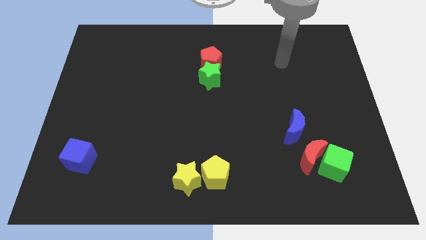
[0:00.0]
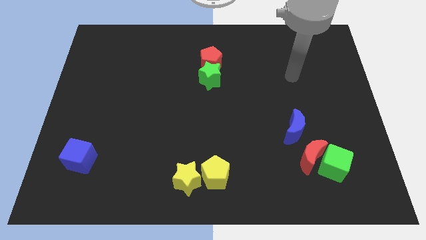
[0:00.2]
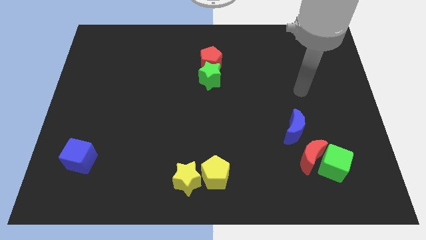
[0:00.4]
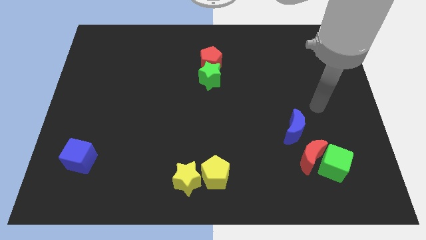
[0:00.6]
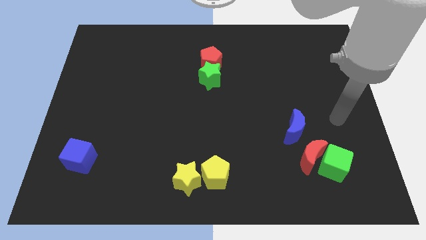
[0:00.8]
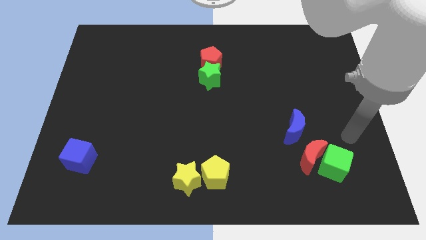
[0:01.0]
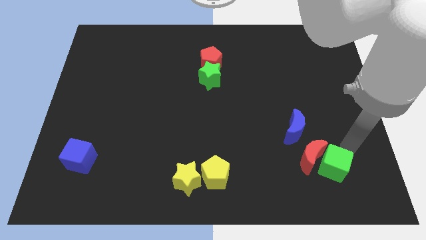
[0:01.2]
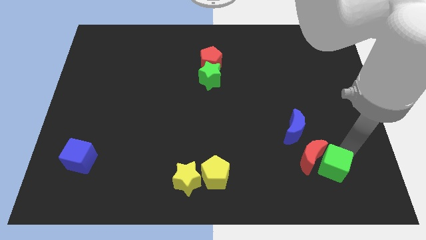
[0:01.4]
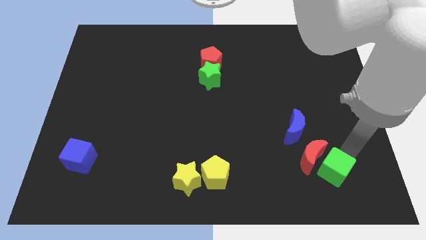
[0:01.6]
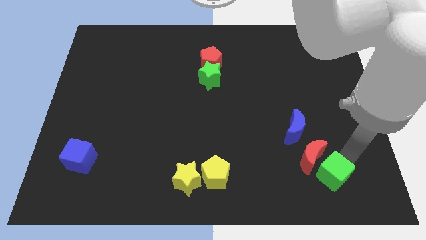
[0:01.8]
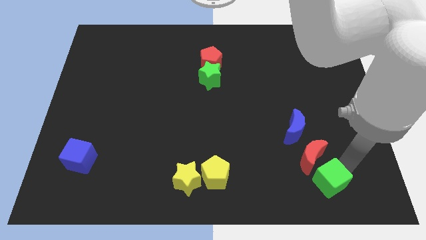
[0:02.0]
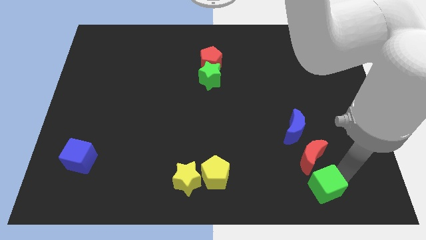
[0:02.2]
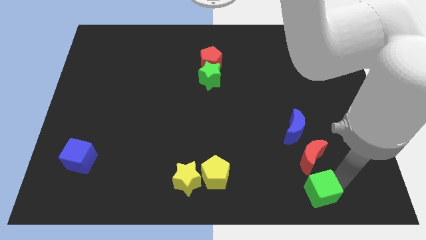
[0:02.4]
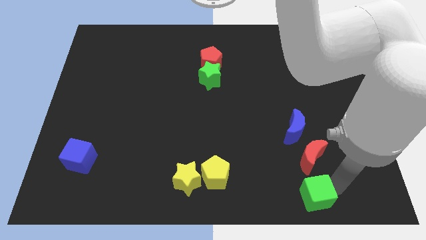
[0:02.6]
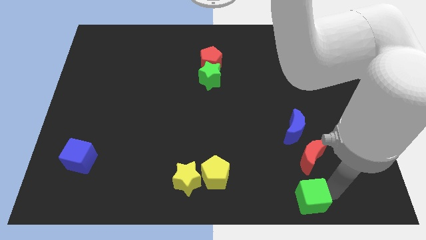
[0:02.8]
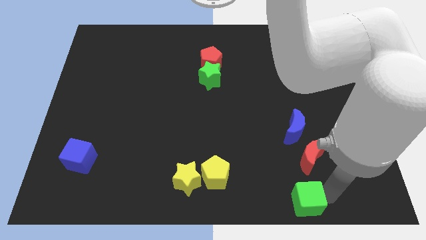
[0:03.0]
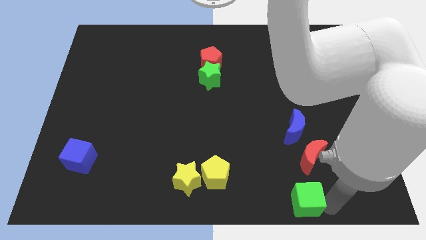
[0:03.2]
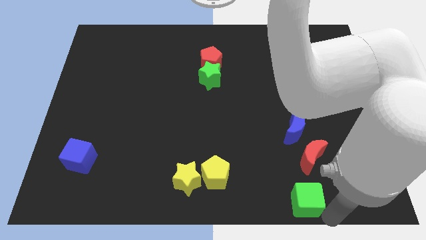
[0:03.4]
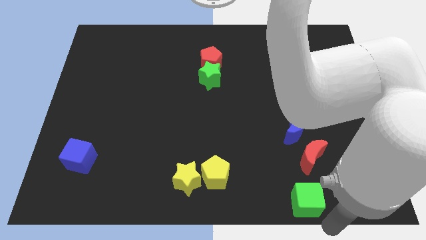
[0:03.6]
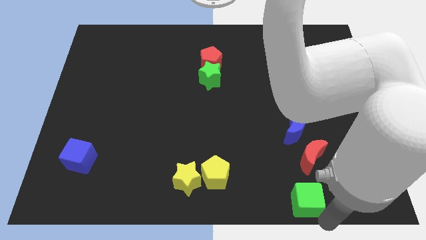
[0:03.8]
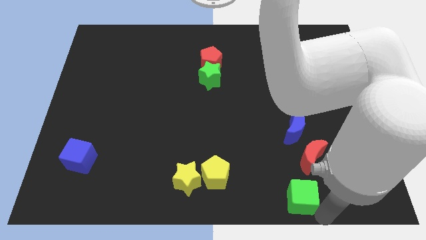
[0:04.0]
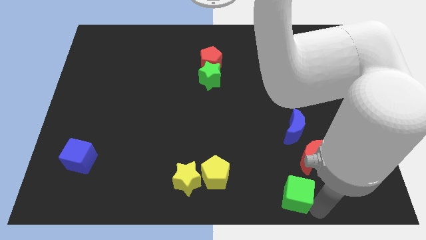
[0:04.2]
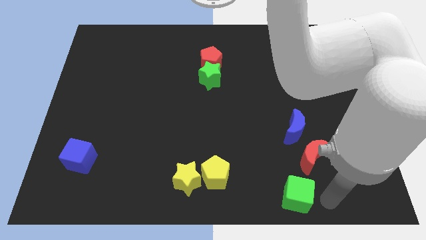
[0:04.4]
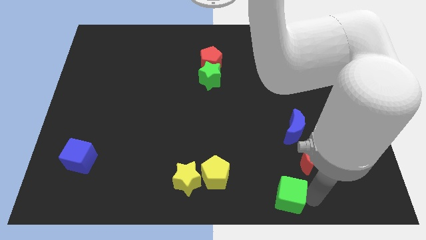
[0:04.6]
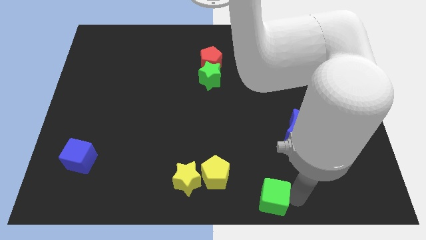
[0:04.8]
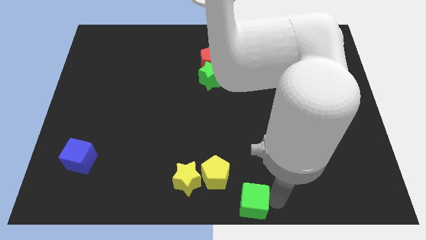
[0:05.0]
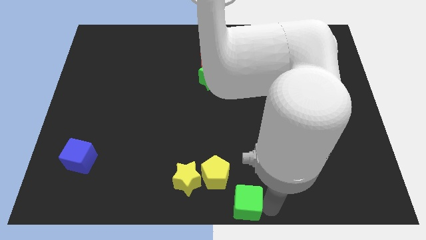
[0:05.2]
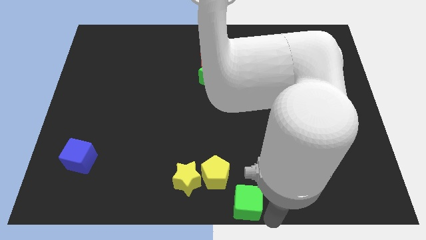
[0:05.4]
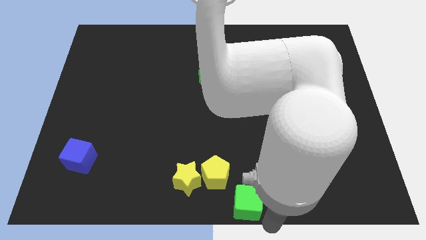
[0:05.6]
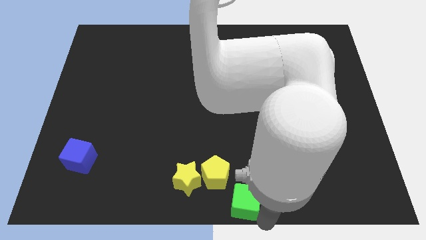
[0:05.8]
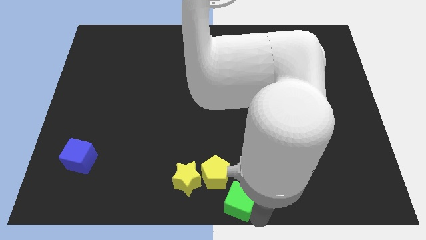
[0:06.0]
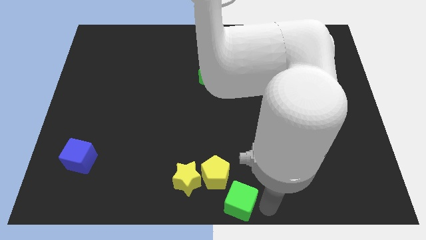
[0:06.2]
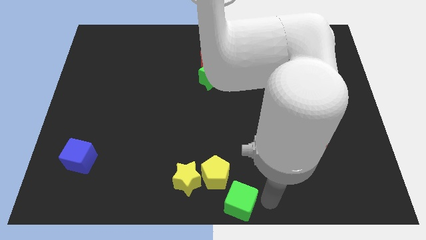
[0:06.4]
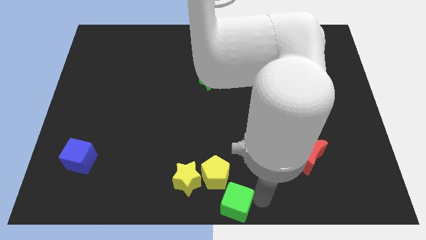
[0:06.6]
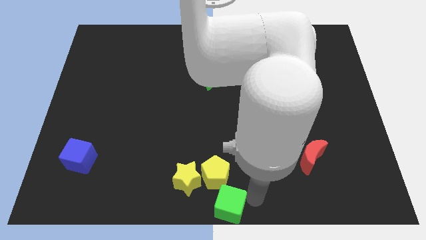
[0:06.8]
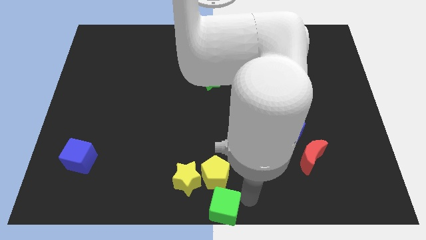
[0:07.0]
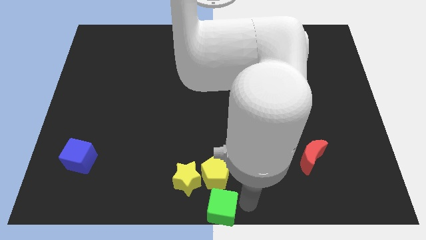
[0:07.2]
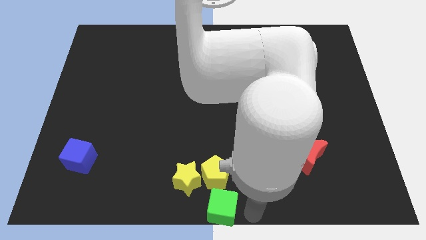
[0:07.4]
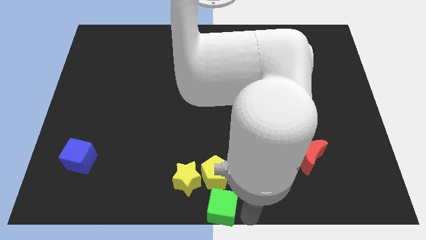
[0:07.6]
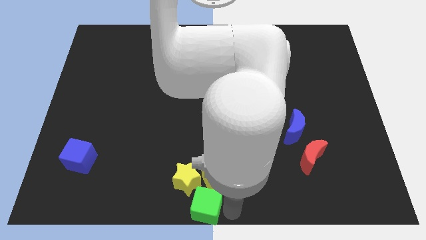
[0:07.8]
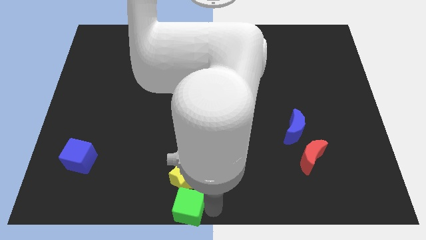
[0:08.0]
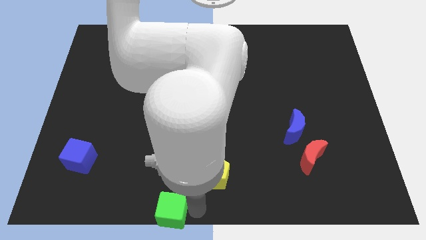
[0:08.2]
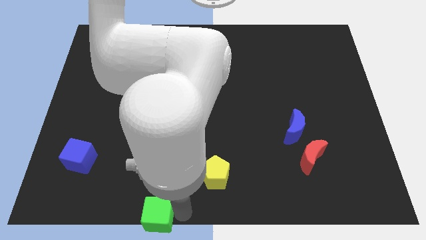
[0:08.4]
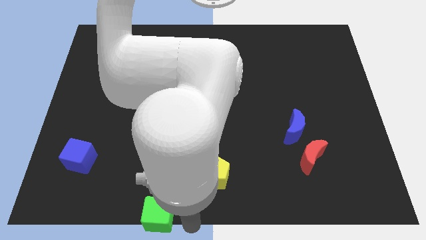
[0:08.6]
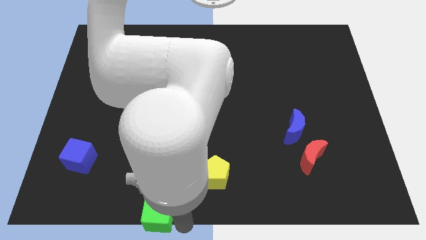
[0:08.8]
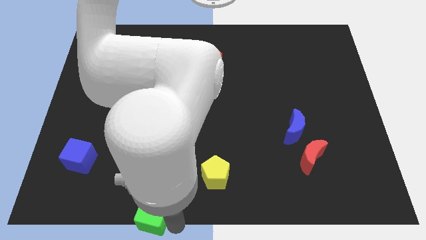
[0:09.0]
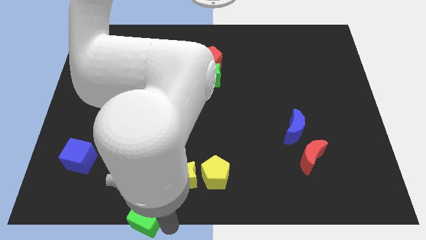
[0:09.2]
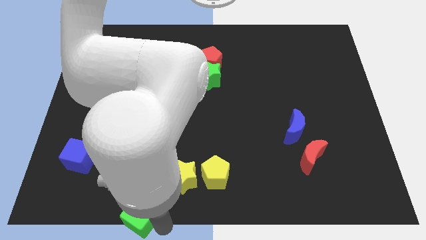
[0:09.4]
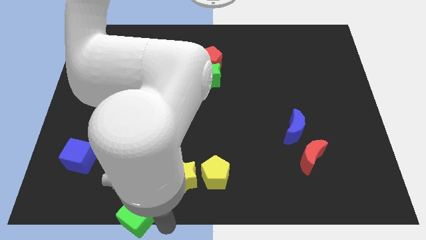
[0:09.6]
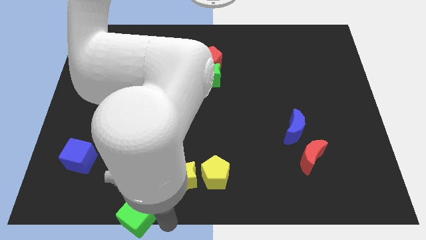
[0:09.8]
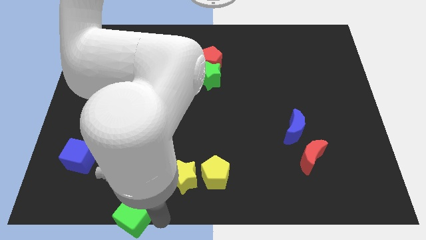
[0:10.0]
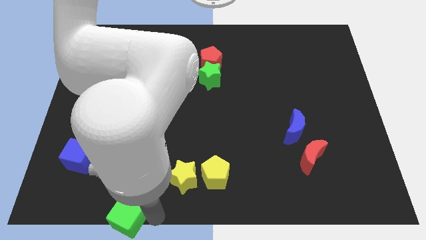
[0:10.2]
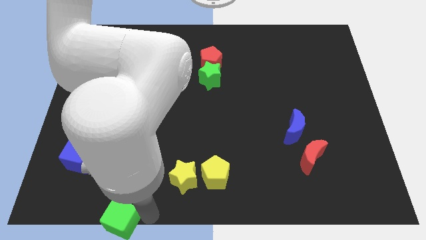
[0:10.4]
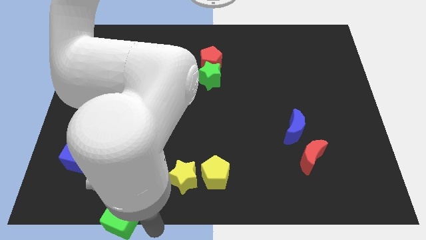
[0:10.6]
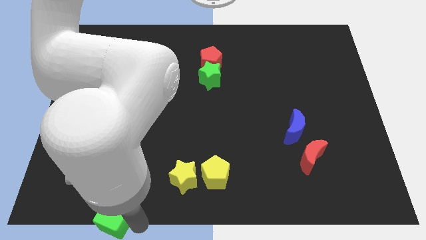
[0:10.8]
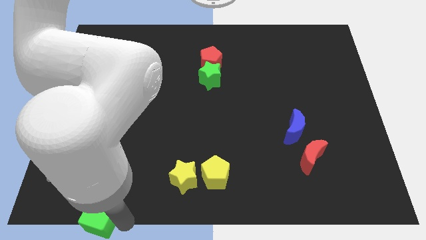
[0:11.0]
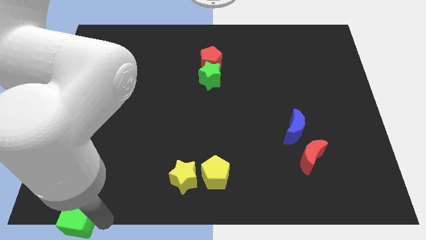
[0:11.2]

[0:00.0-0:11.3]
put the green cube to the bottom left

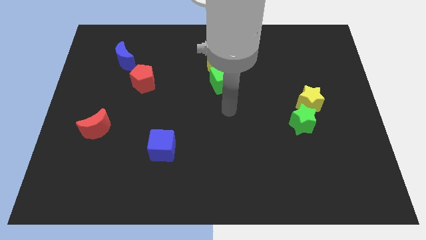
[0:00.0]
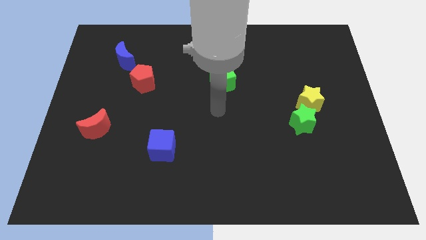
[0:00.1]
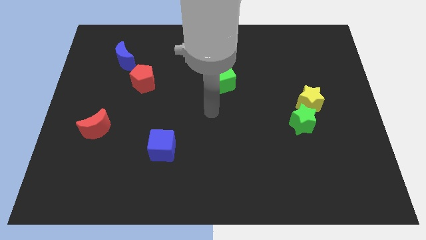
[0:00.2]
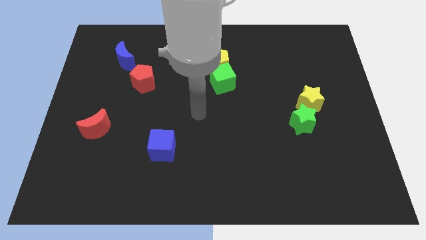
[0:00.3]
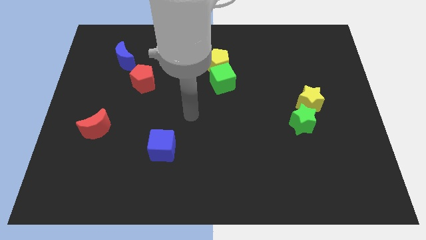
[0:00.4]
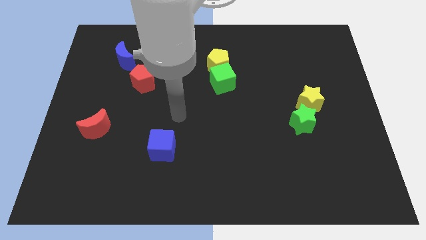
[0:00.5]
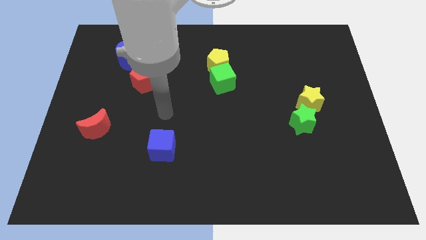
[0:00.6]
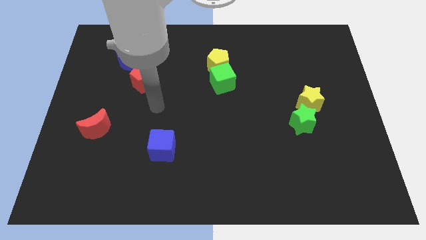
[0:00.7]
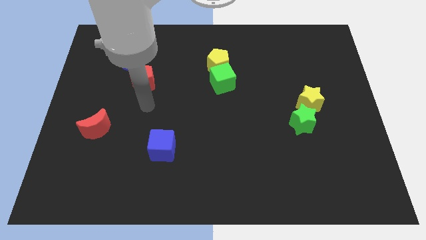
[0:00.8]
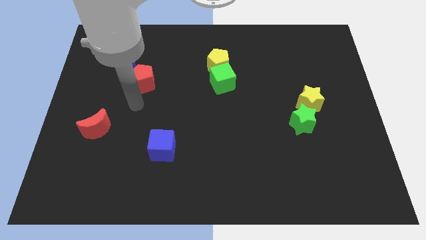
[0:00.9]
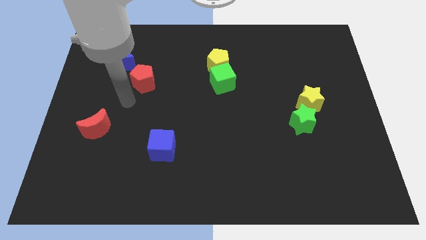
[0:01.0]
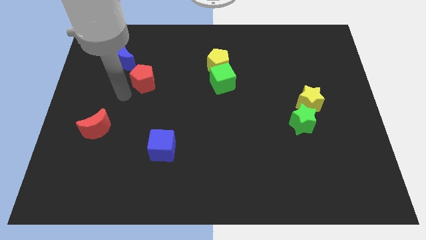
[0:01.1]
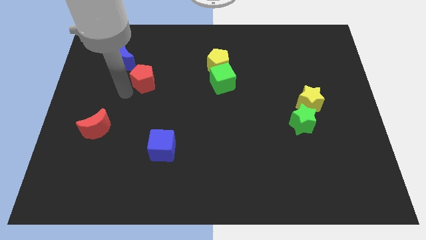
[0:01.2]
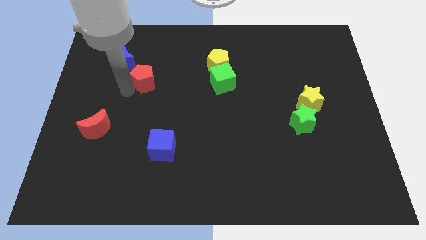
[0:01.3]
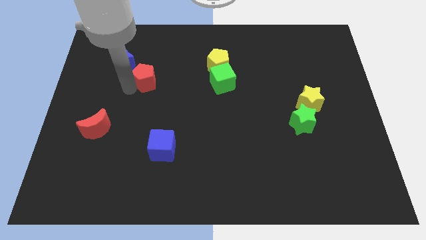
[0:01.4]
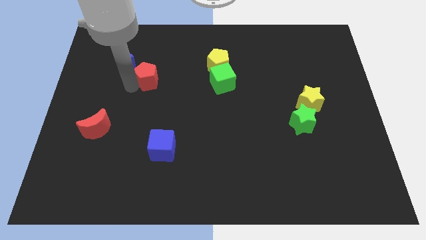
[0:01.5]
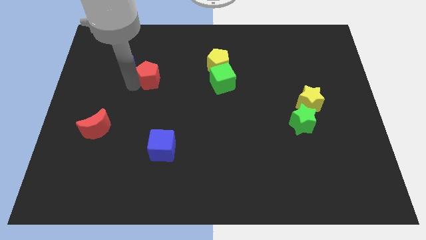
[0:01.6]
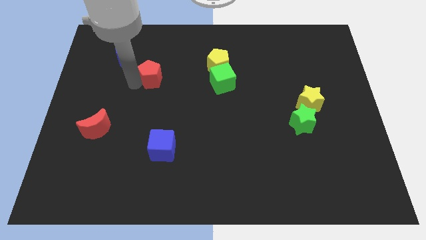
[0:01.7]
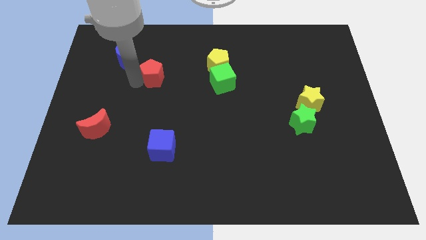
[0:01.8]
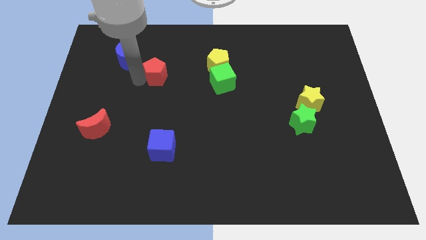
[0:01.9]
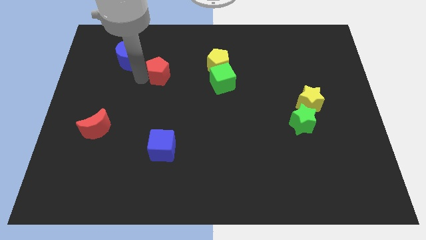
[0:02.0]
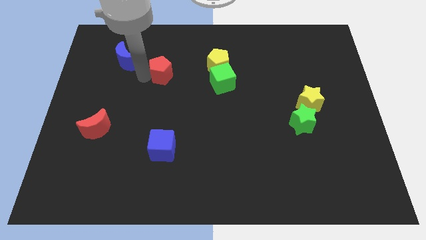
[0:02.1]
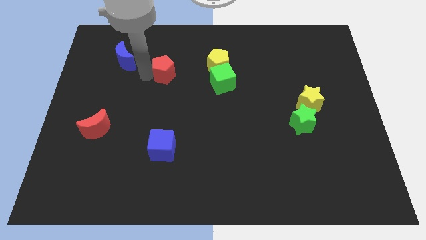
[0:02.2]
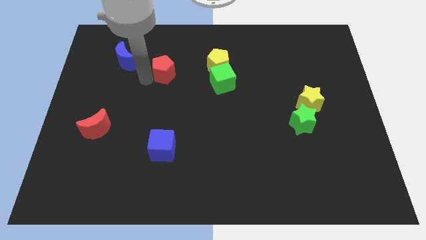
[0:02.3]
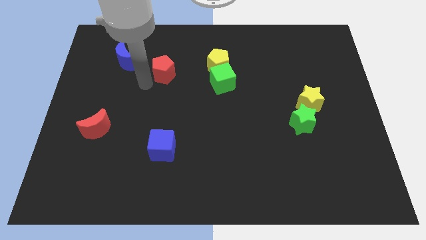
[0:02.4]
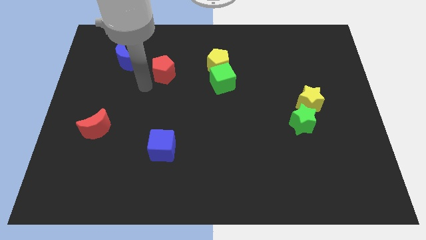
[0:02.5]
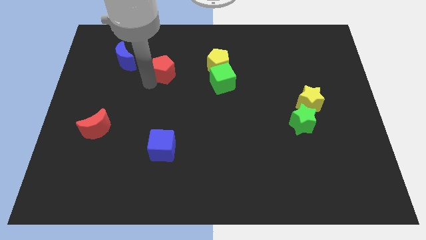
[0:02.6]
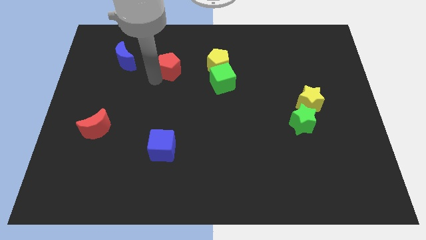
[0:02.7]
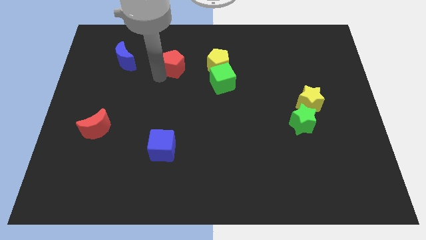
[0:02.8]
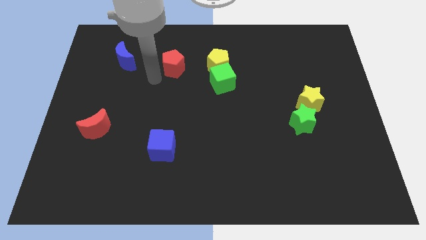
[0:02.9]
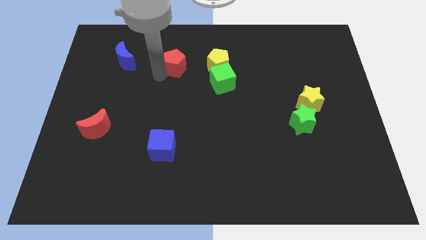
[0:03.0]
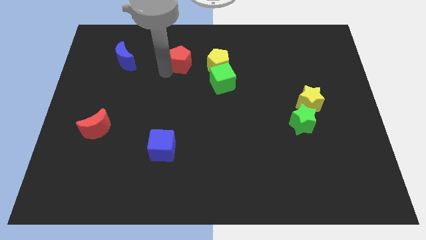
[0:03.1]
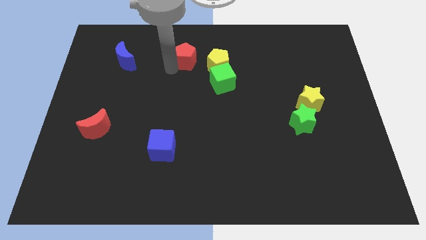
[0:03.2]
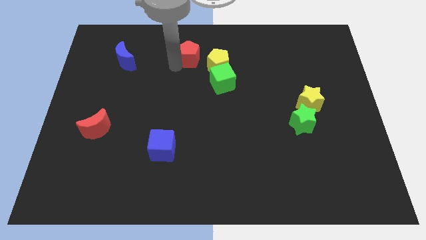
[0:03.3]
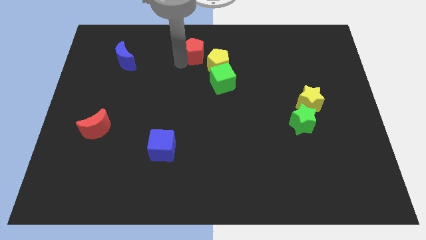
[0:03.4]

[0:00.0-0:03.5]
slide the red pentagon to the top
